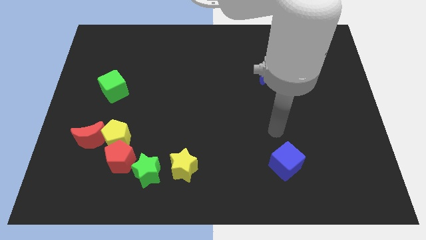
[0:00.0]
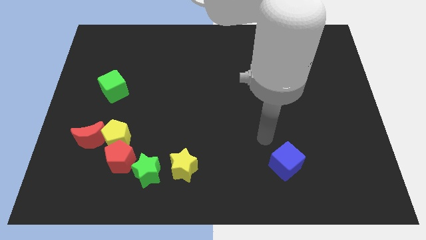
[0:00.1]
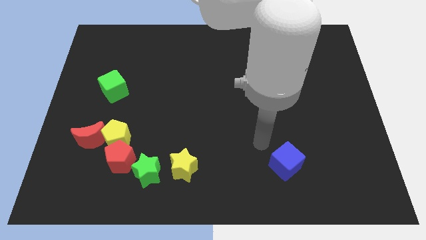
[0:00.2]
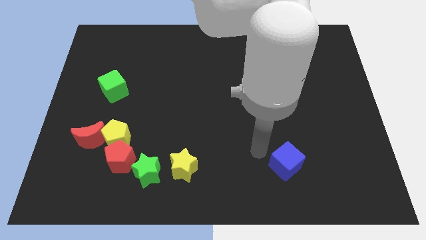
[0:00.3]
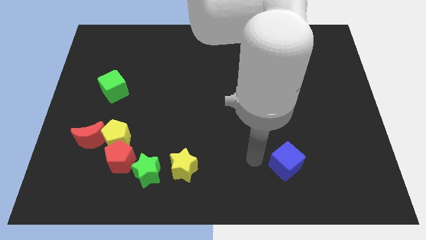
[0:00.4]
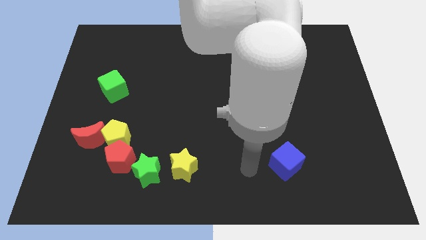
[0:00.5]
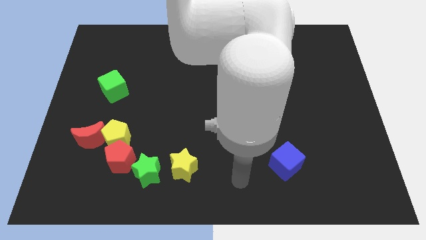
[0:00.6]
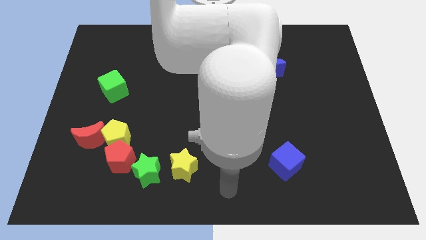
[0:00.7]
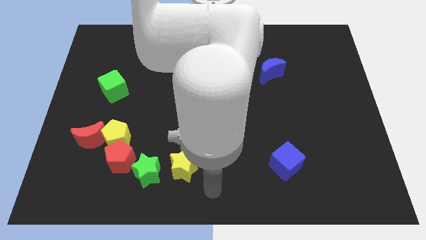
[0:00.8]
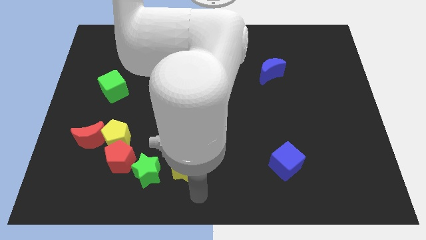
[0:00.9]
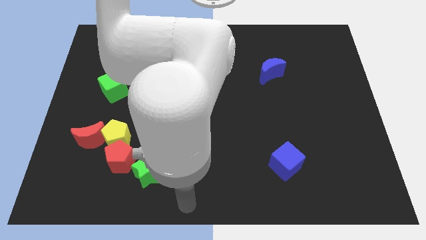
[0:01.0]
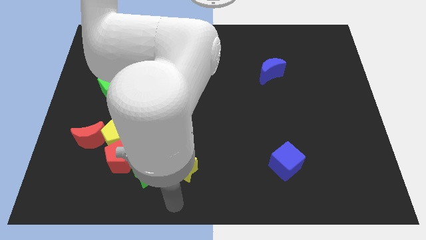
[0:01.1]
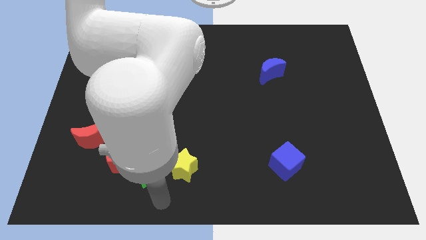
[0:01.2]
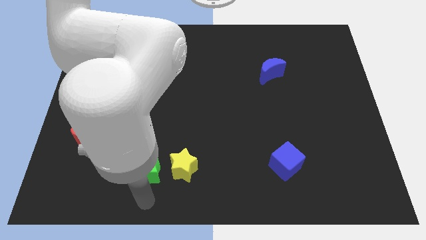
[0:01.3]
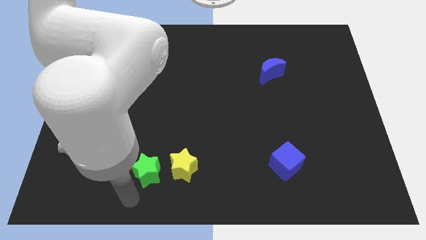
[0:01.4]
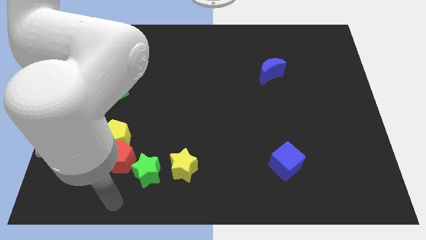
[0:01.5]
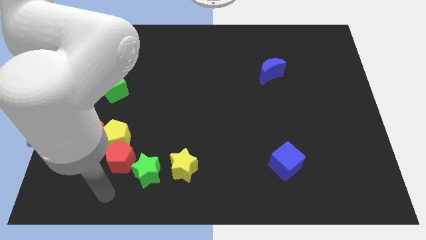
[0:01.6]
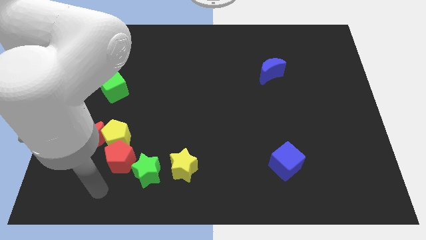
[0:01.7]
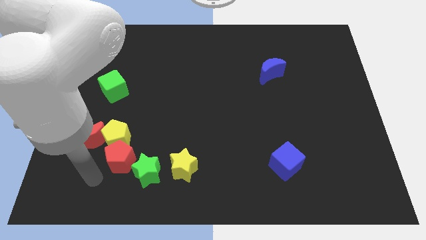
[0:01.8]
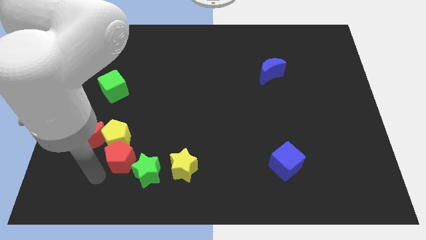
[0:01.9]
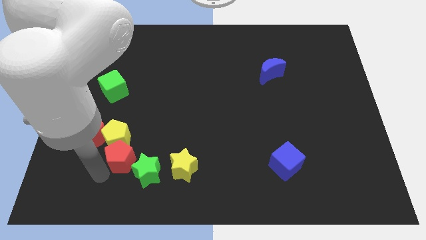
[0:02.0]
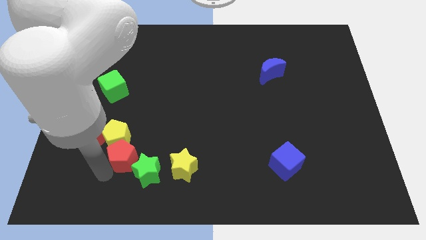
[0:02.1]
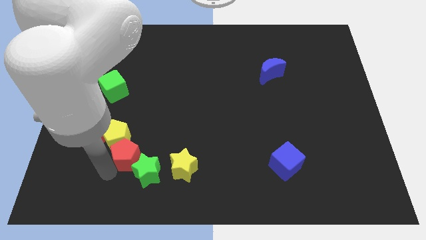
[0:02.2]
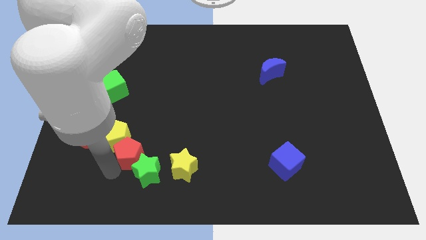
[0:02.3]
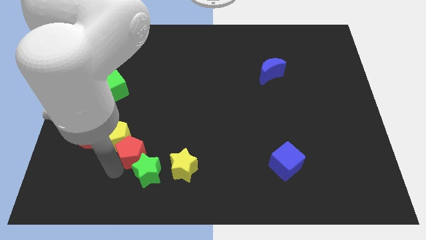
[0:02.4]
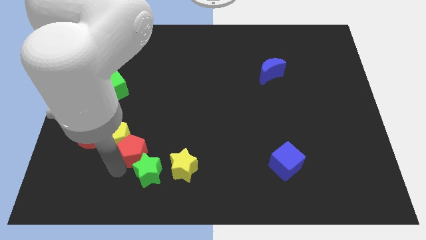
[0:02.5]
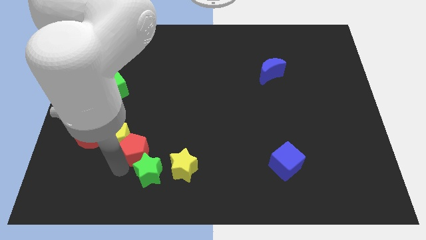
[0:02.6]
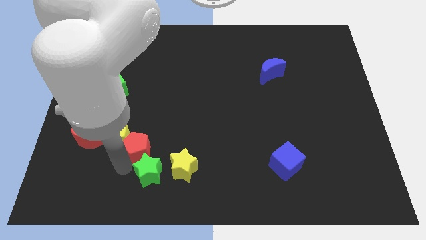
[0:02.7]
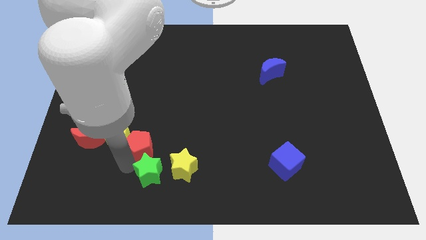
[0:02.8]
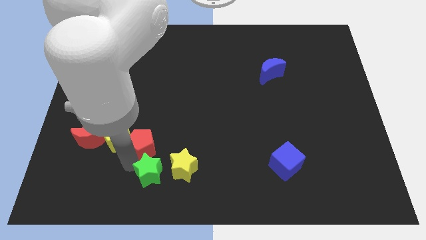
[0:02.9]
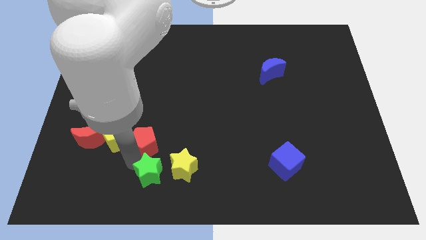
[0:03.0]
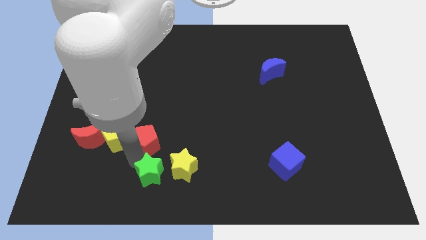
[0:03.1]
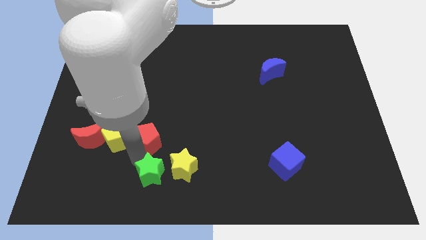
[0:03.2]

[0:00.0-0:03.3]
push the red pentagon upwards and right diagonally a little bit

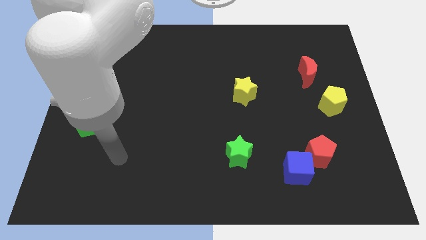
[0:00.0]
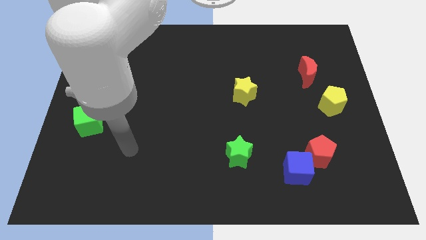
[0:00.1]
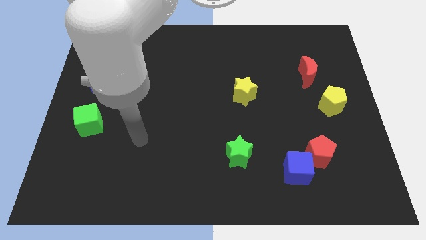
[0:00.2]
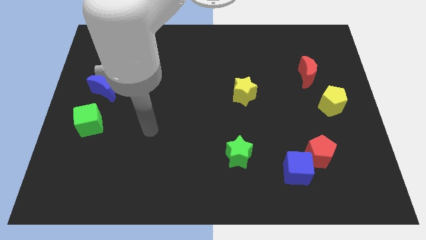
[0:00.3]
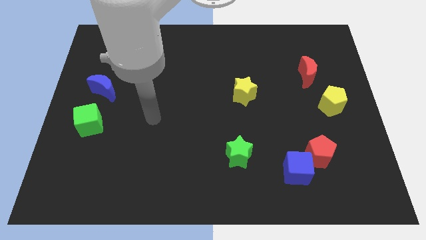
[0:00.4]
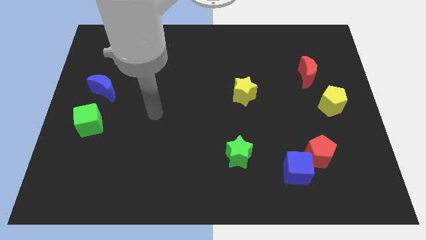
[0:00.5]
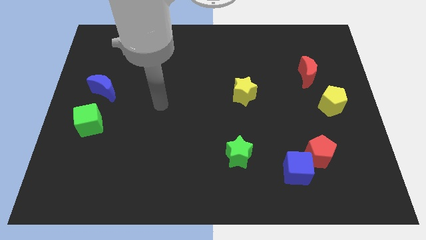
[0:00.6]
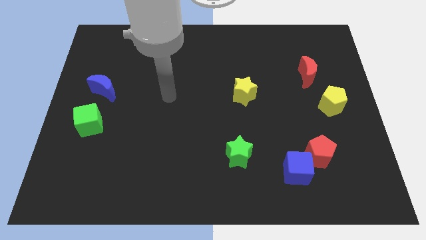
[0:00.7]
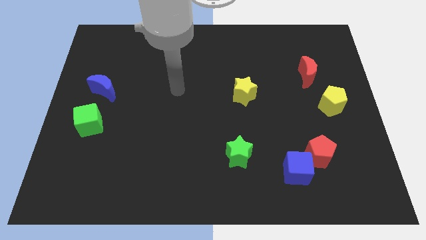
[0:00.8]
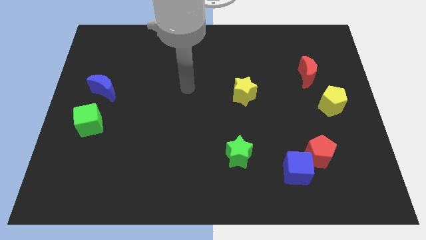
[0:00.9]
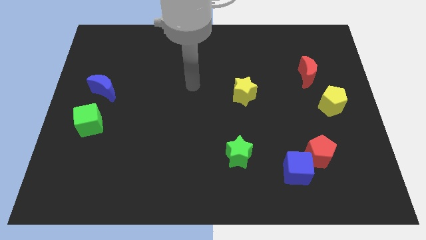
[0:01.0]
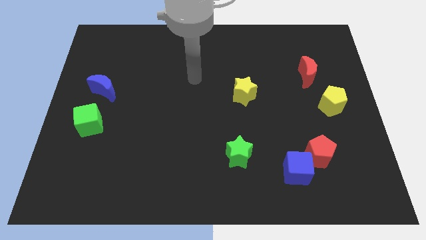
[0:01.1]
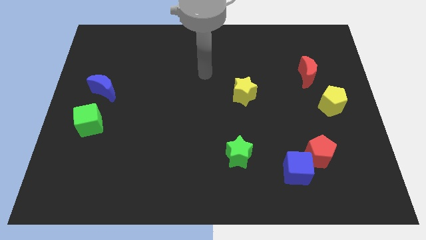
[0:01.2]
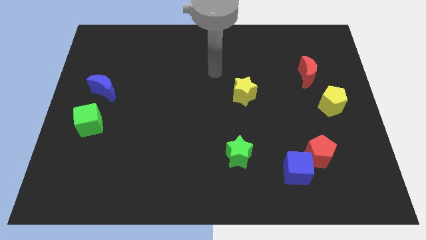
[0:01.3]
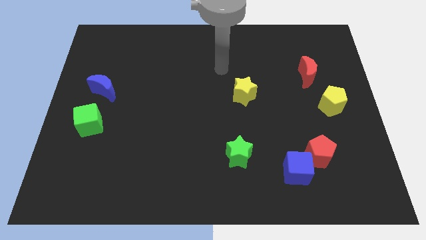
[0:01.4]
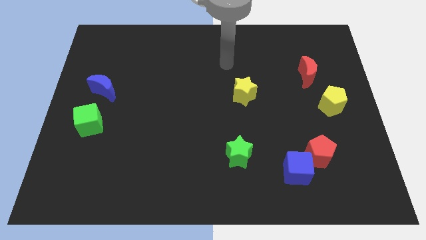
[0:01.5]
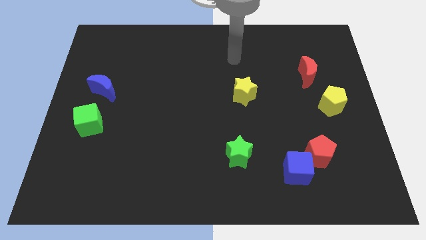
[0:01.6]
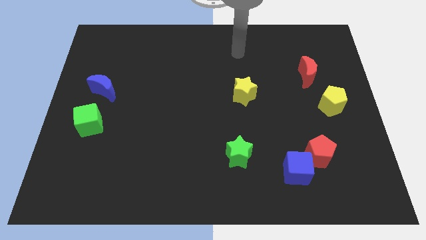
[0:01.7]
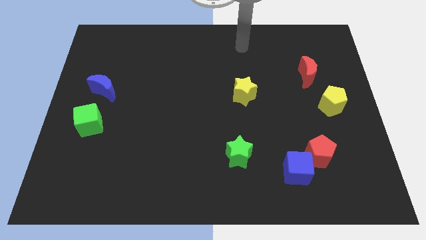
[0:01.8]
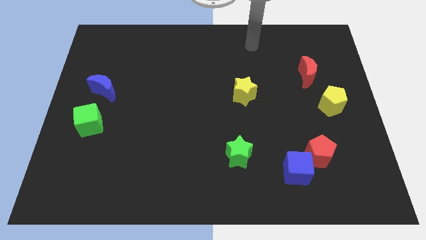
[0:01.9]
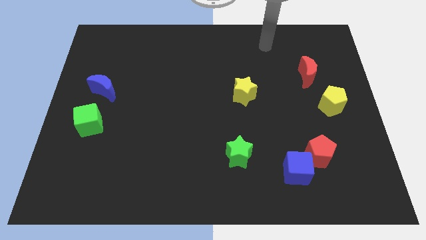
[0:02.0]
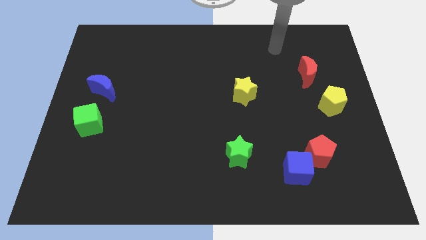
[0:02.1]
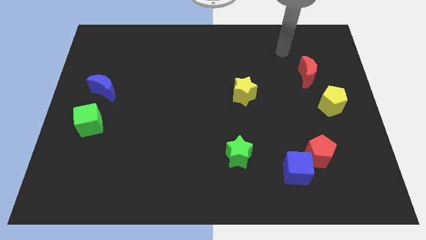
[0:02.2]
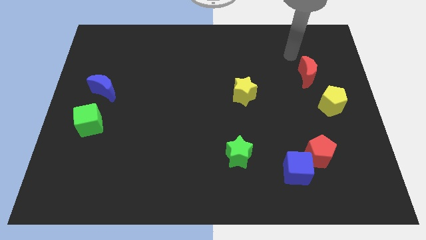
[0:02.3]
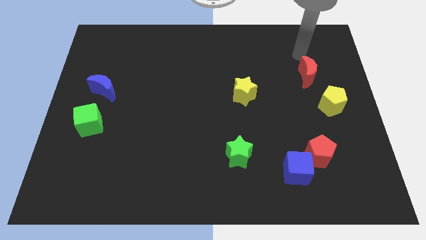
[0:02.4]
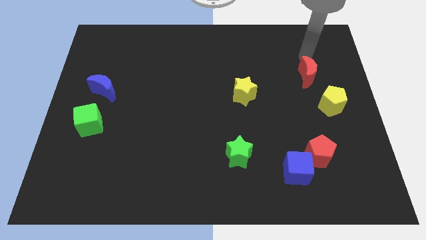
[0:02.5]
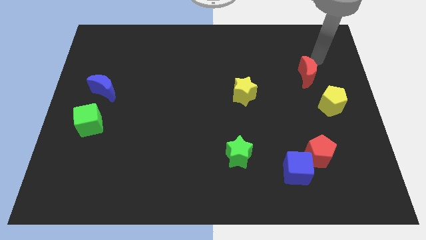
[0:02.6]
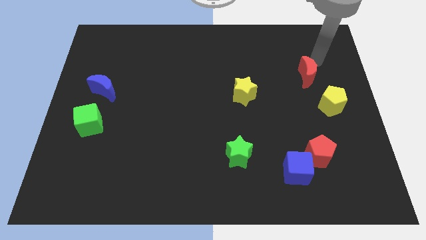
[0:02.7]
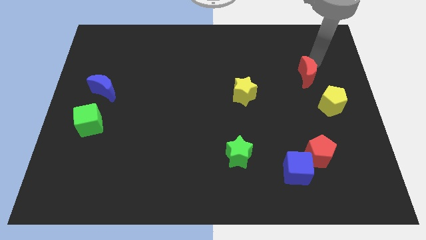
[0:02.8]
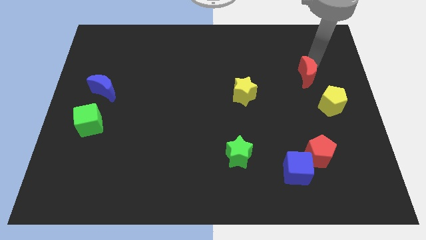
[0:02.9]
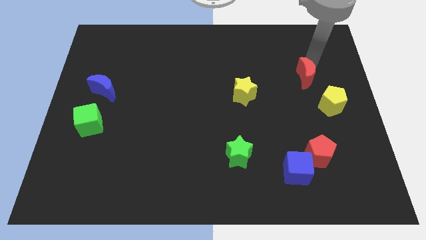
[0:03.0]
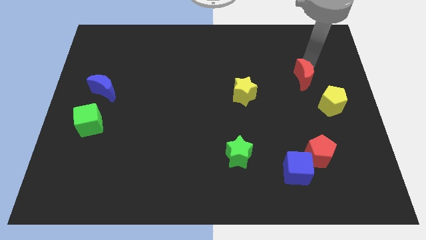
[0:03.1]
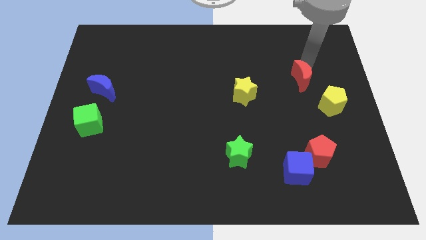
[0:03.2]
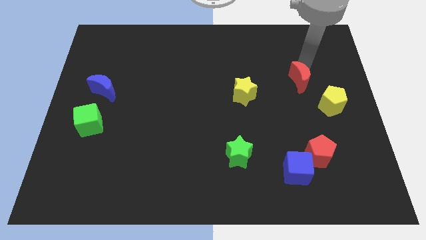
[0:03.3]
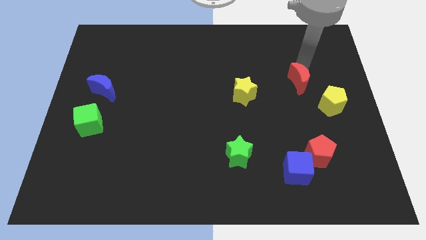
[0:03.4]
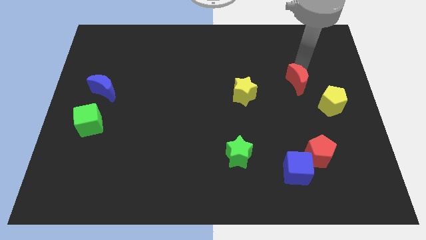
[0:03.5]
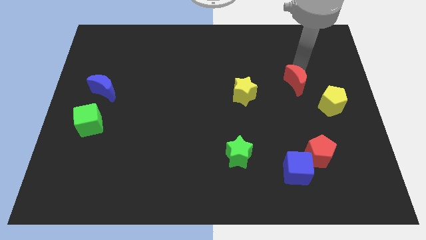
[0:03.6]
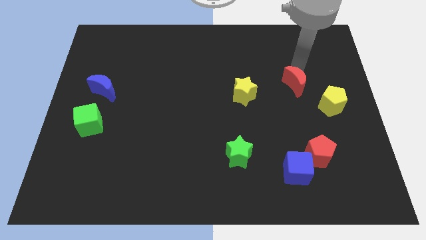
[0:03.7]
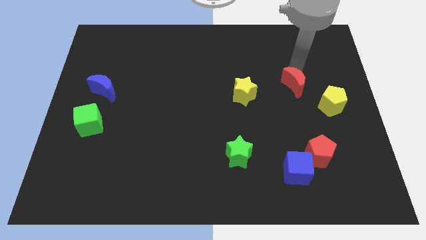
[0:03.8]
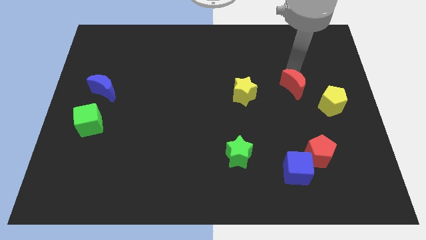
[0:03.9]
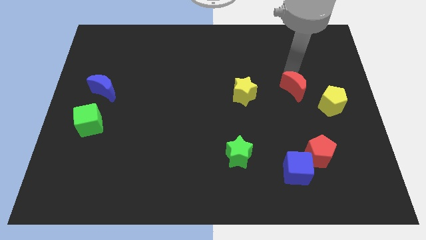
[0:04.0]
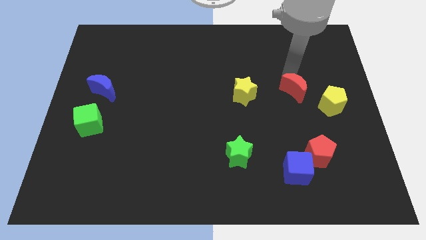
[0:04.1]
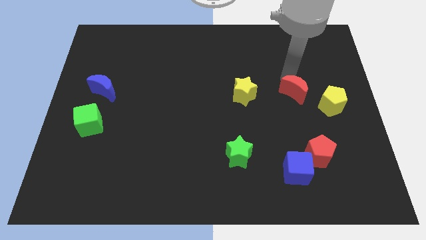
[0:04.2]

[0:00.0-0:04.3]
move the red moon slightly down and left
